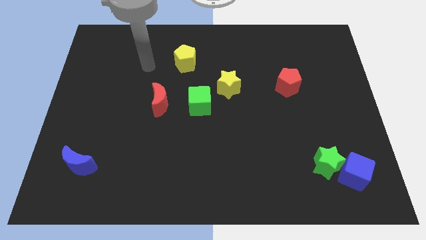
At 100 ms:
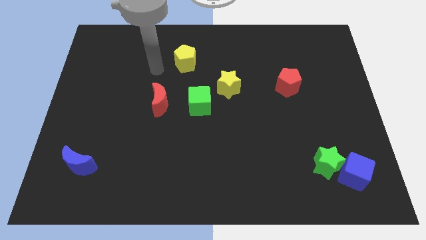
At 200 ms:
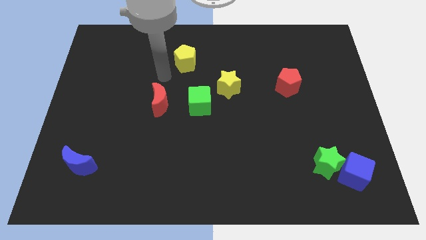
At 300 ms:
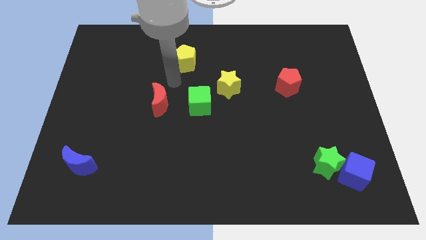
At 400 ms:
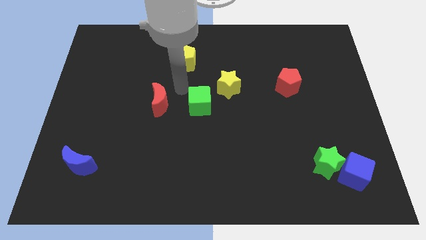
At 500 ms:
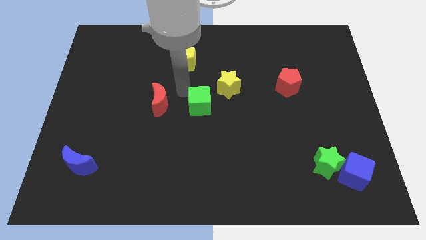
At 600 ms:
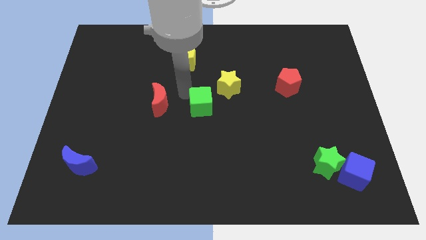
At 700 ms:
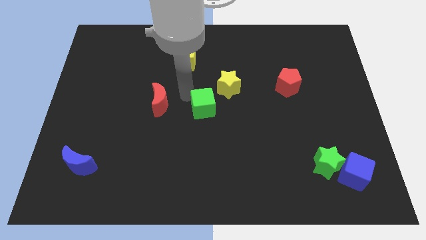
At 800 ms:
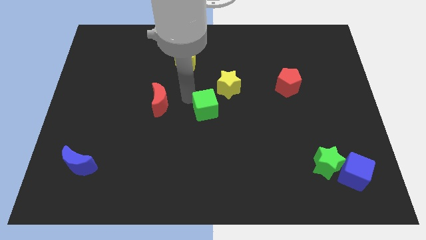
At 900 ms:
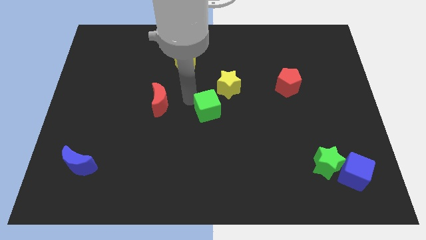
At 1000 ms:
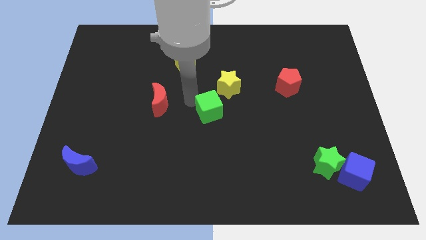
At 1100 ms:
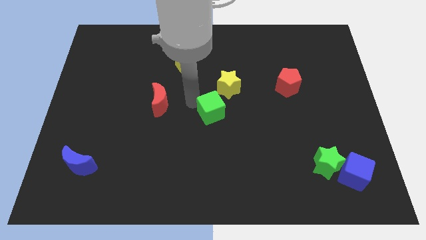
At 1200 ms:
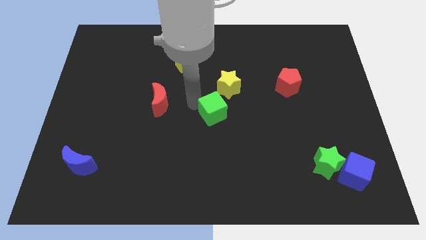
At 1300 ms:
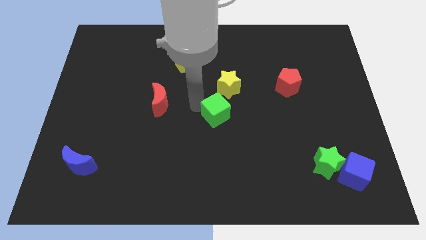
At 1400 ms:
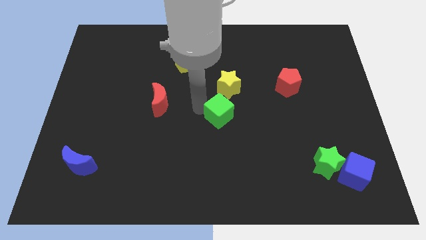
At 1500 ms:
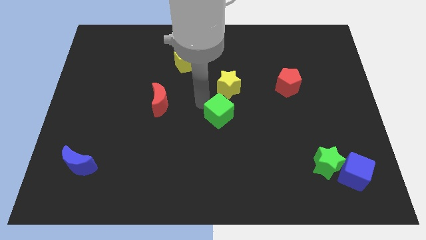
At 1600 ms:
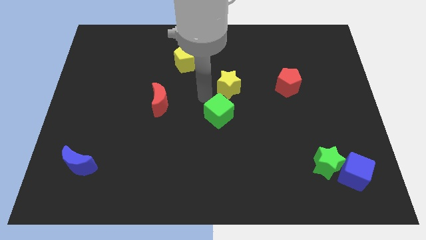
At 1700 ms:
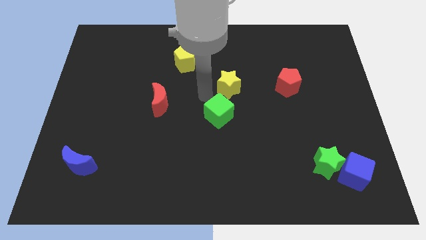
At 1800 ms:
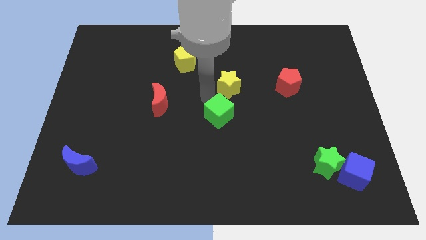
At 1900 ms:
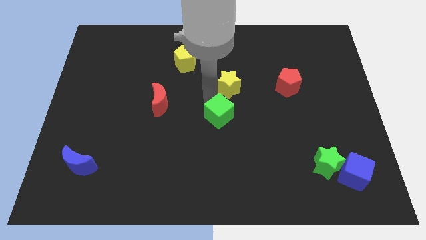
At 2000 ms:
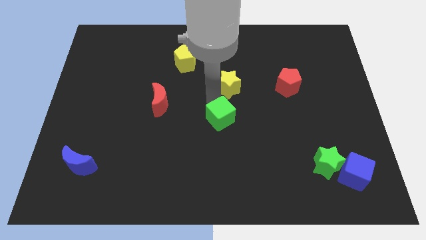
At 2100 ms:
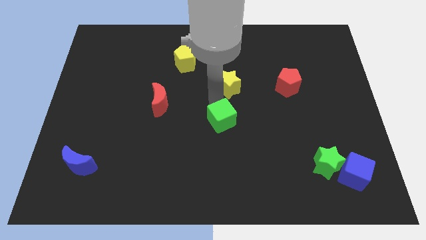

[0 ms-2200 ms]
push the green cube downwards and then to the right slightly

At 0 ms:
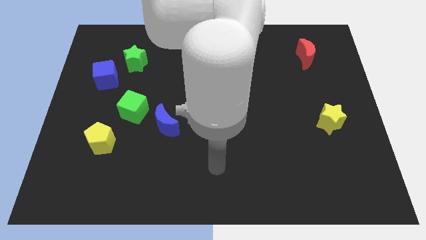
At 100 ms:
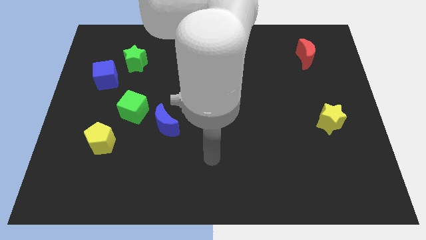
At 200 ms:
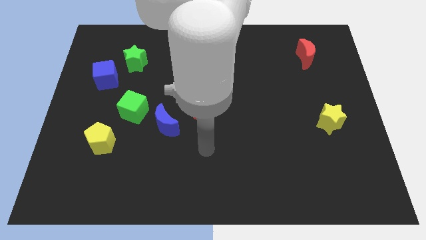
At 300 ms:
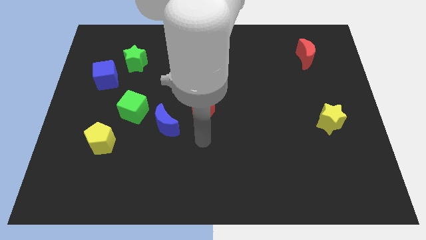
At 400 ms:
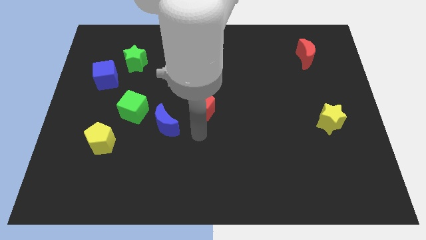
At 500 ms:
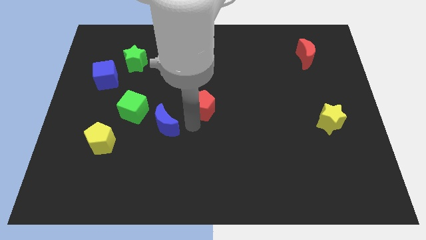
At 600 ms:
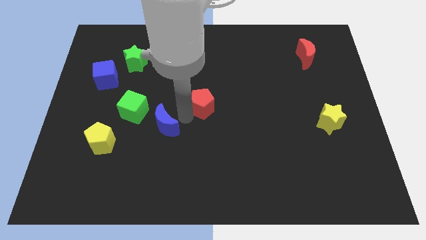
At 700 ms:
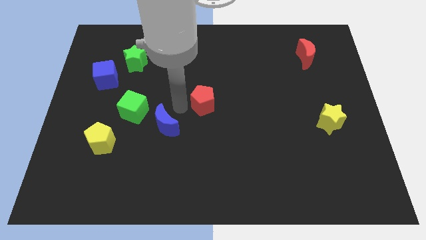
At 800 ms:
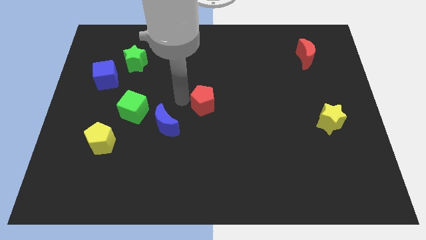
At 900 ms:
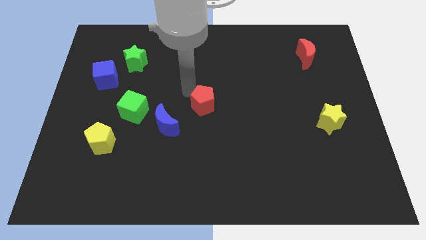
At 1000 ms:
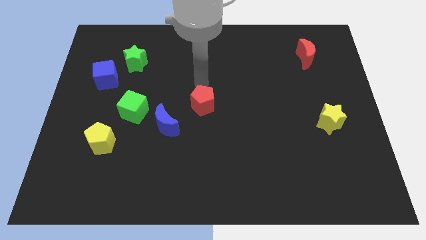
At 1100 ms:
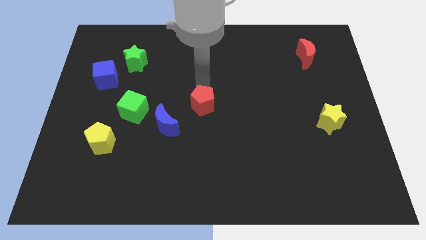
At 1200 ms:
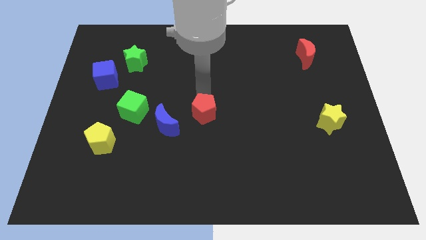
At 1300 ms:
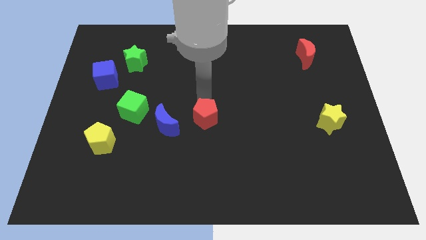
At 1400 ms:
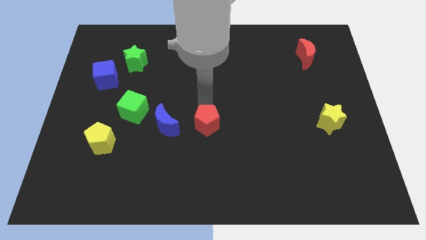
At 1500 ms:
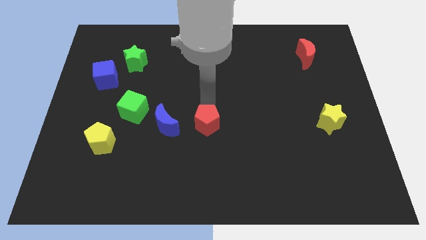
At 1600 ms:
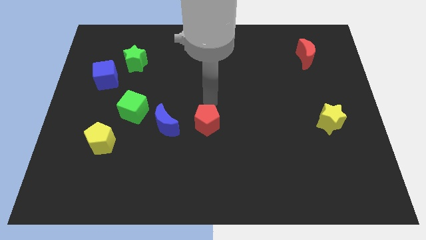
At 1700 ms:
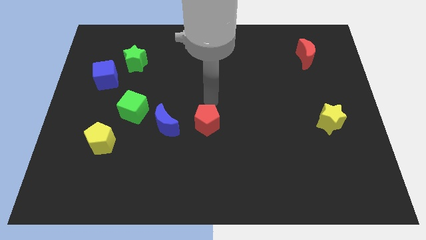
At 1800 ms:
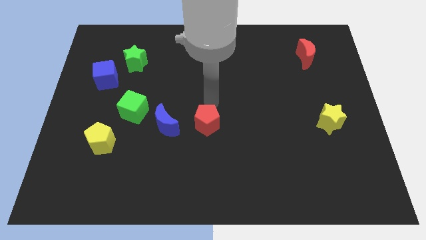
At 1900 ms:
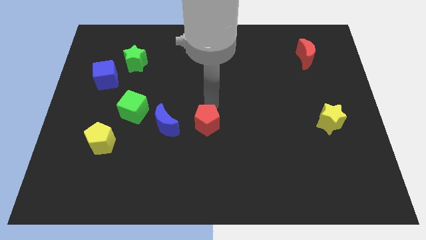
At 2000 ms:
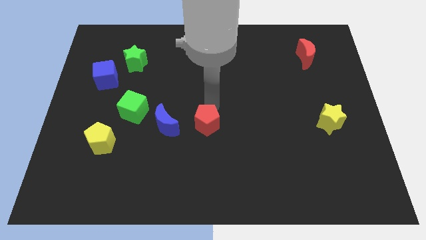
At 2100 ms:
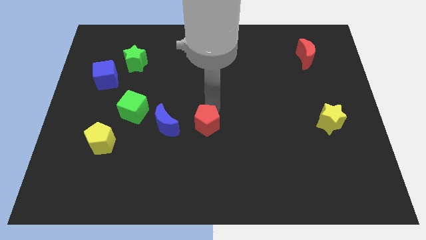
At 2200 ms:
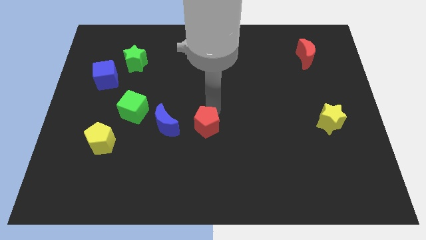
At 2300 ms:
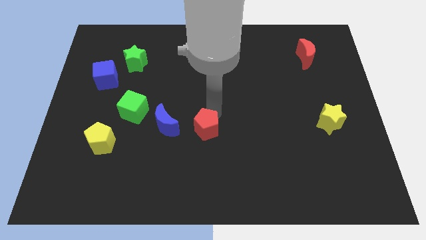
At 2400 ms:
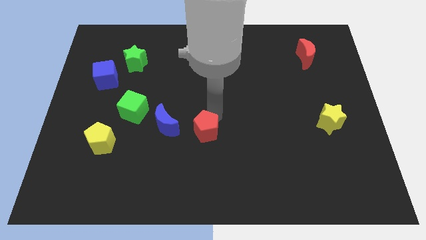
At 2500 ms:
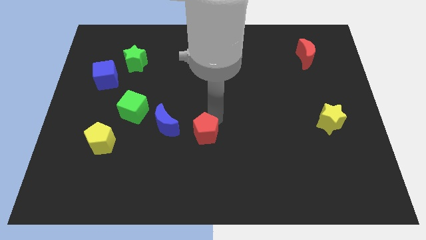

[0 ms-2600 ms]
push the red pentagon somewhat down

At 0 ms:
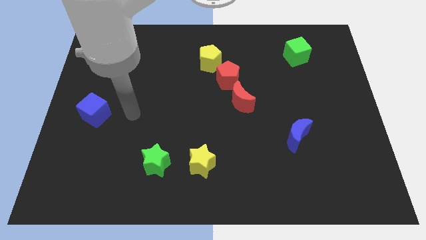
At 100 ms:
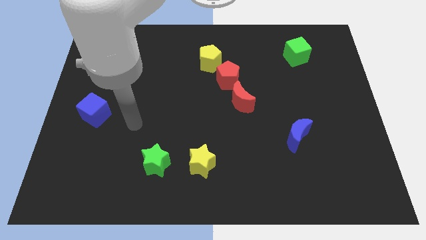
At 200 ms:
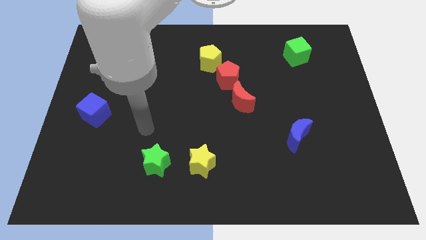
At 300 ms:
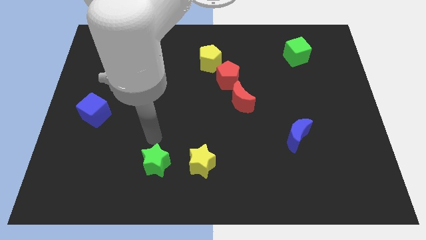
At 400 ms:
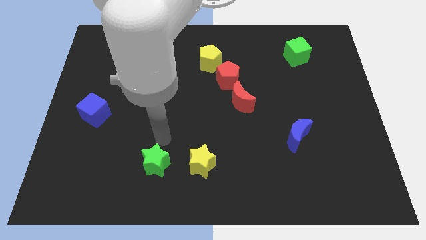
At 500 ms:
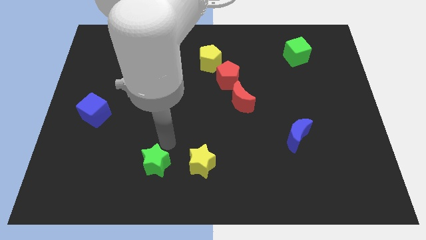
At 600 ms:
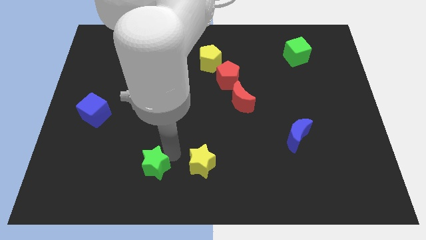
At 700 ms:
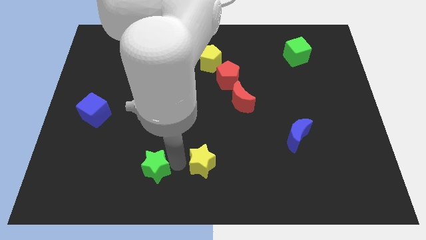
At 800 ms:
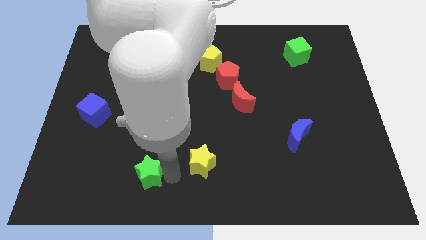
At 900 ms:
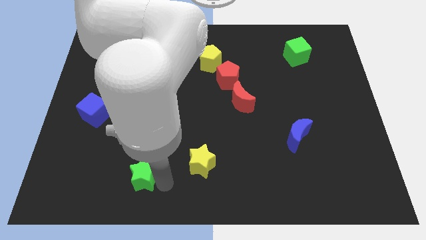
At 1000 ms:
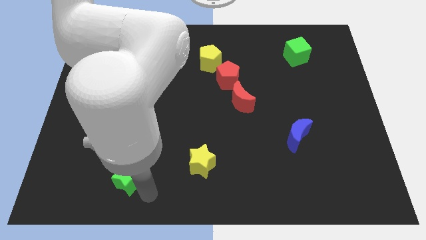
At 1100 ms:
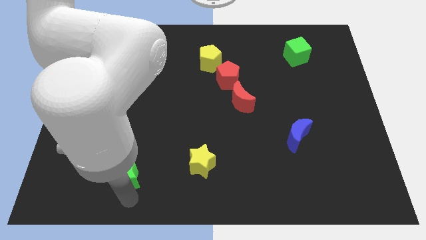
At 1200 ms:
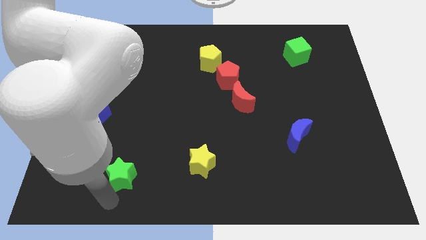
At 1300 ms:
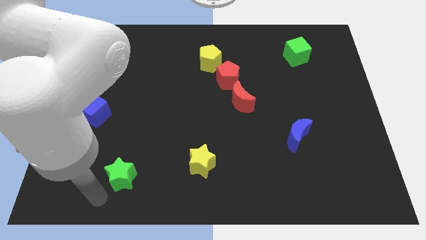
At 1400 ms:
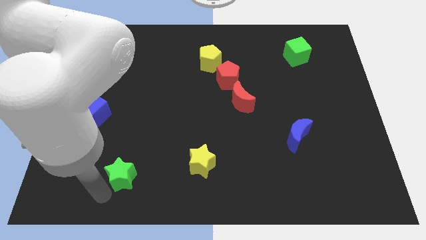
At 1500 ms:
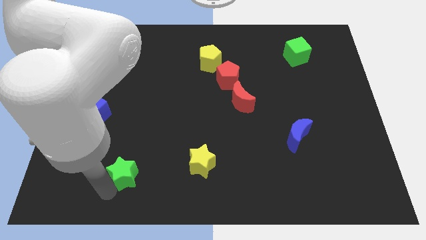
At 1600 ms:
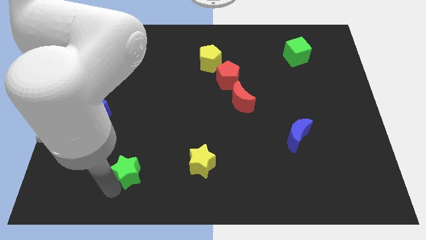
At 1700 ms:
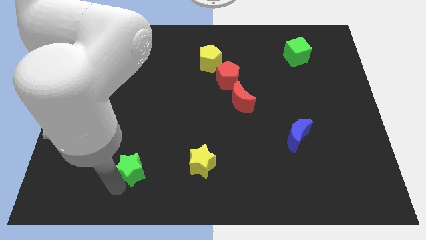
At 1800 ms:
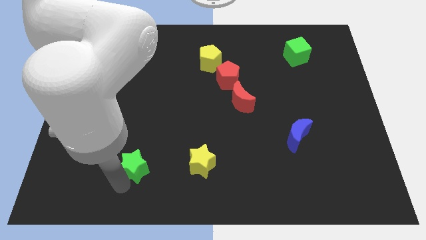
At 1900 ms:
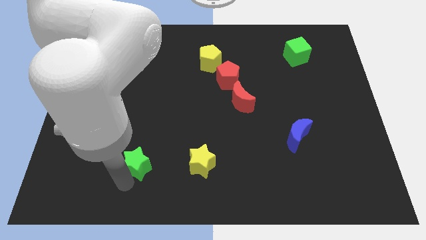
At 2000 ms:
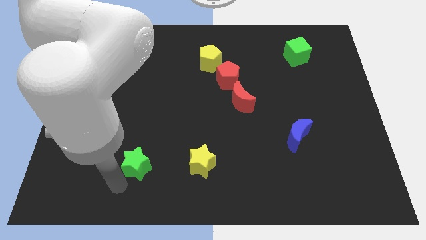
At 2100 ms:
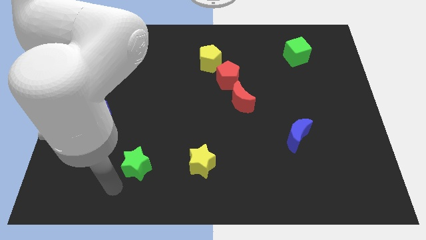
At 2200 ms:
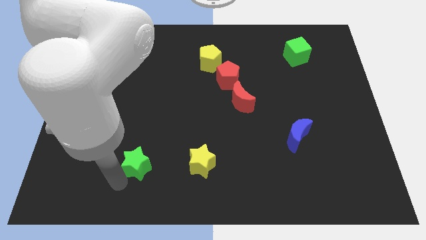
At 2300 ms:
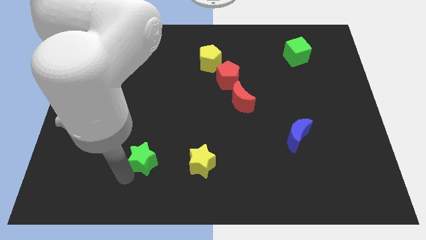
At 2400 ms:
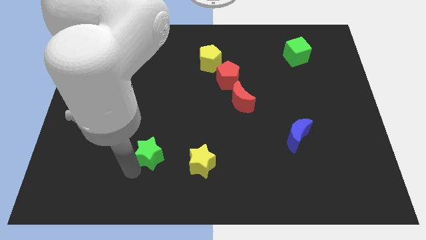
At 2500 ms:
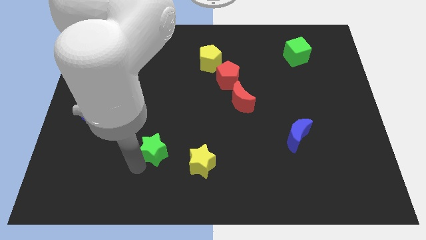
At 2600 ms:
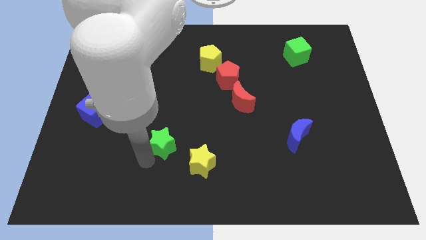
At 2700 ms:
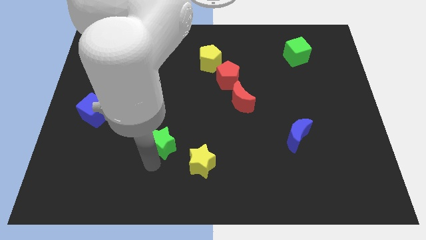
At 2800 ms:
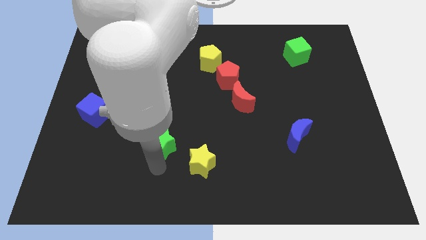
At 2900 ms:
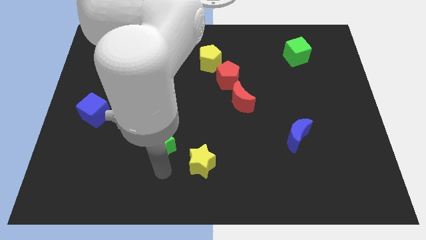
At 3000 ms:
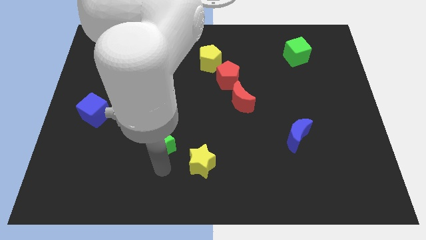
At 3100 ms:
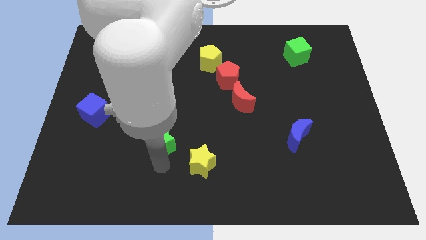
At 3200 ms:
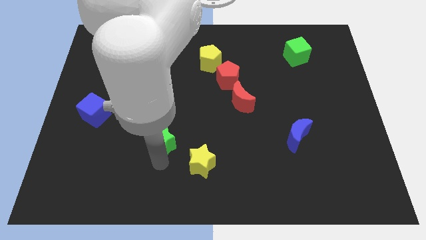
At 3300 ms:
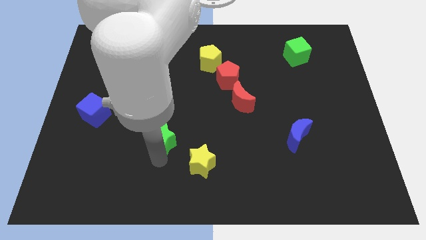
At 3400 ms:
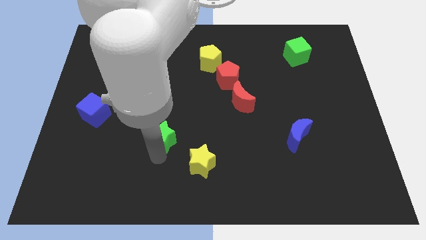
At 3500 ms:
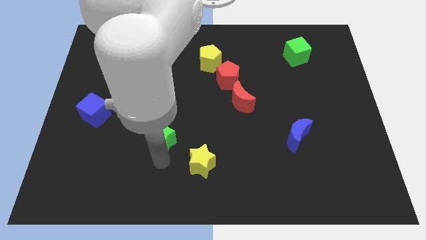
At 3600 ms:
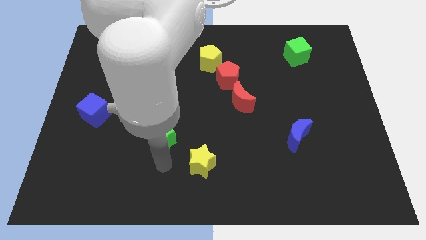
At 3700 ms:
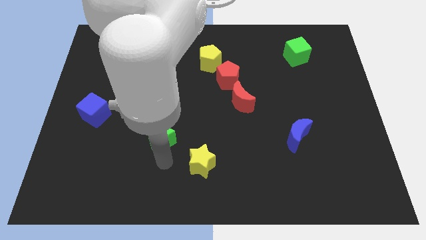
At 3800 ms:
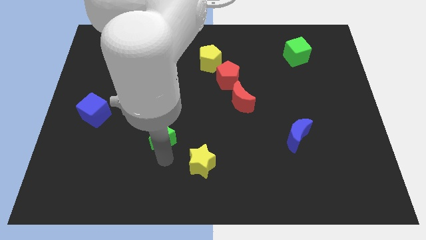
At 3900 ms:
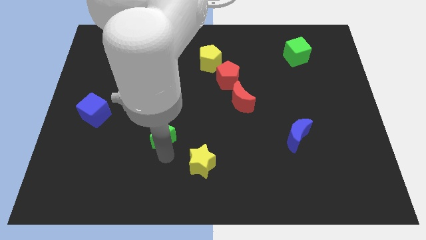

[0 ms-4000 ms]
slightly push the green star up
